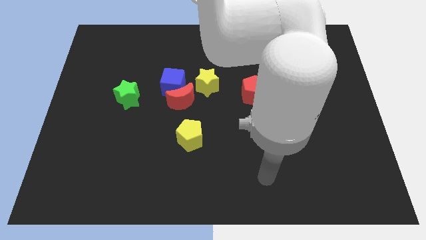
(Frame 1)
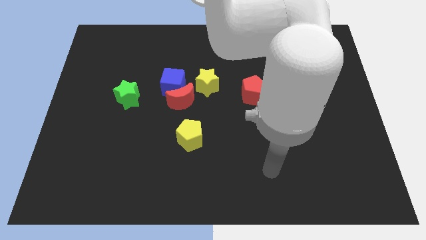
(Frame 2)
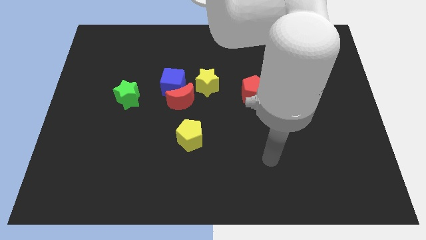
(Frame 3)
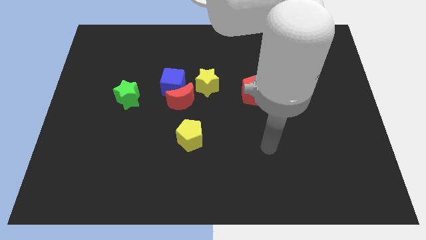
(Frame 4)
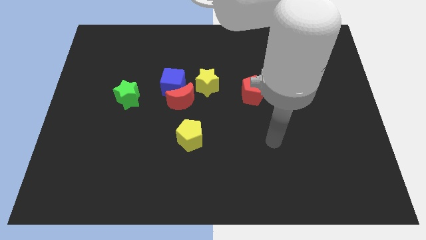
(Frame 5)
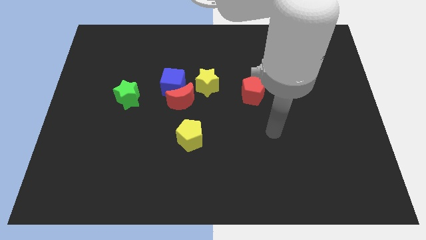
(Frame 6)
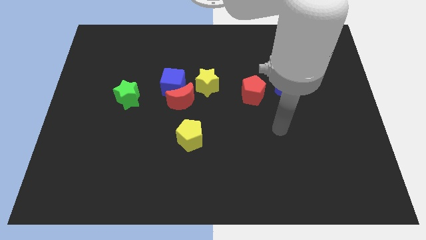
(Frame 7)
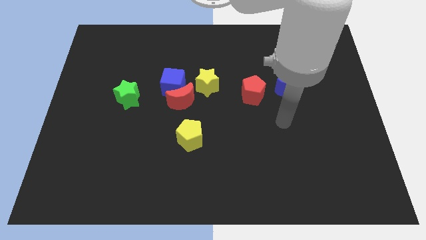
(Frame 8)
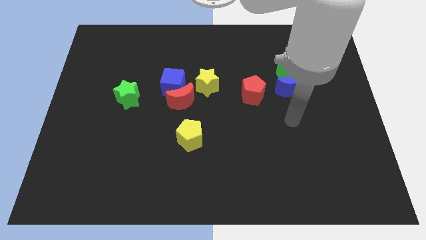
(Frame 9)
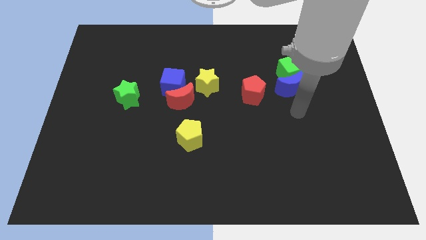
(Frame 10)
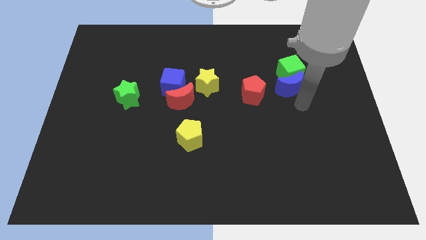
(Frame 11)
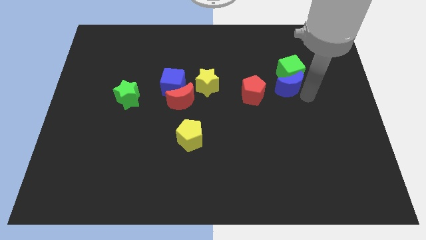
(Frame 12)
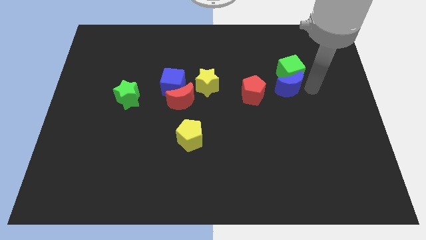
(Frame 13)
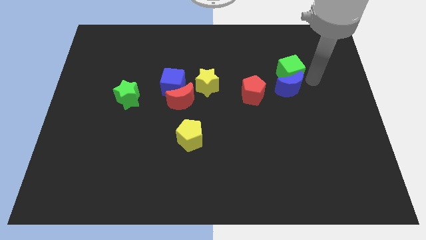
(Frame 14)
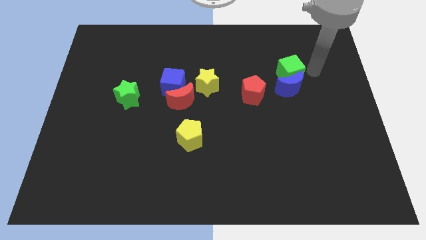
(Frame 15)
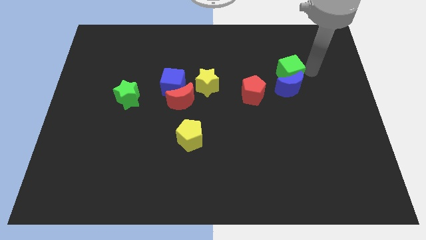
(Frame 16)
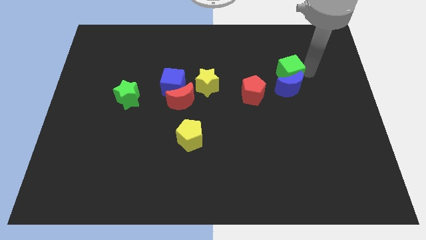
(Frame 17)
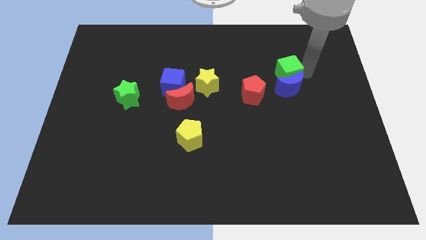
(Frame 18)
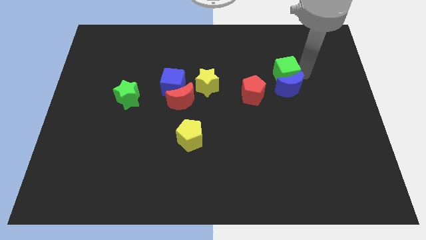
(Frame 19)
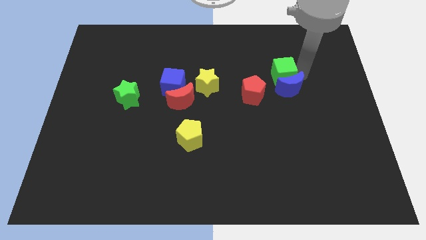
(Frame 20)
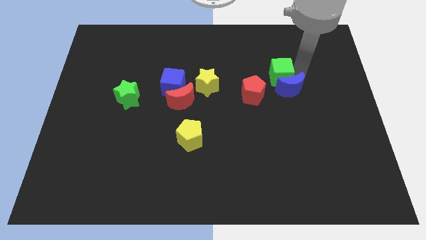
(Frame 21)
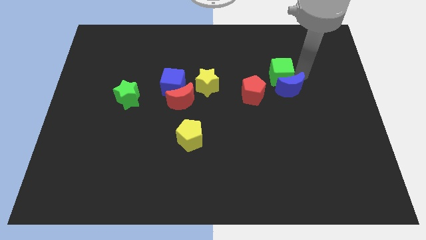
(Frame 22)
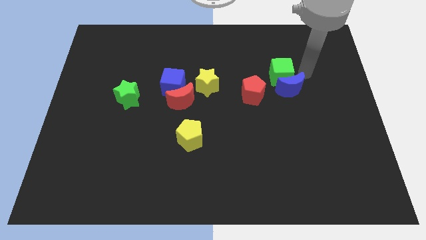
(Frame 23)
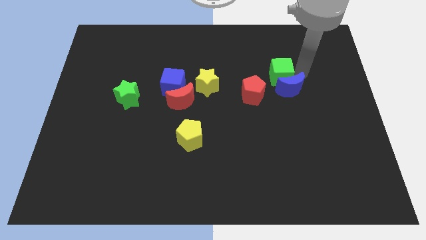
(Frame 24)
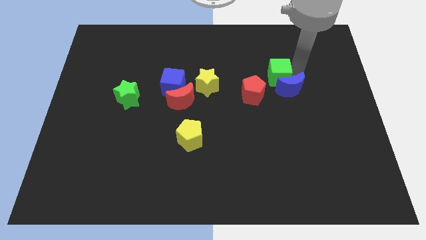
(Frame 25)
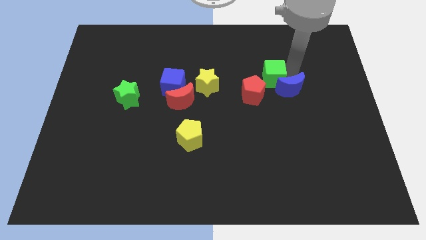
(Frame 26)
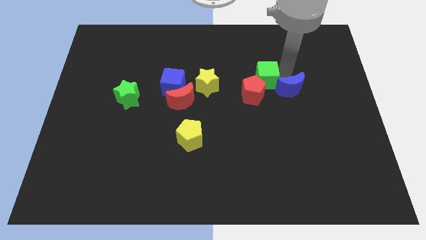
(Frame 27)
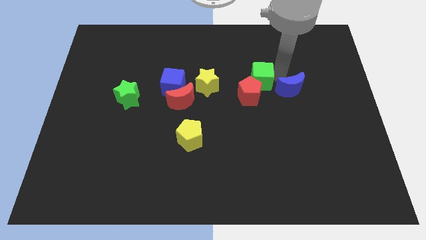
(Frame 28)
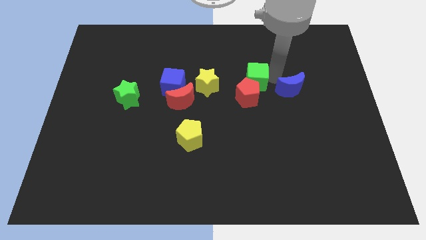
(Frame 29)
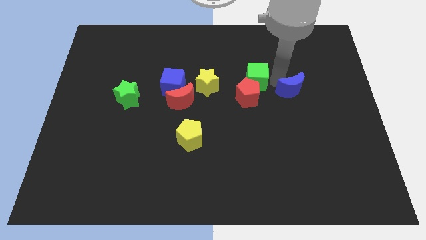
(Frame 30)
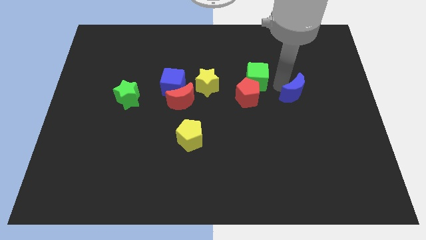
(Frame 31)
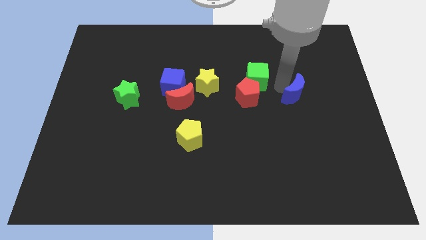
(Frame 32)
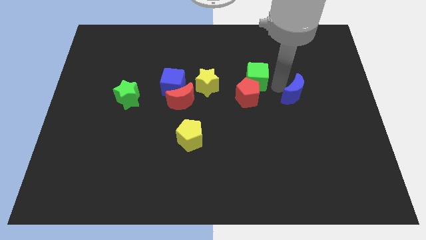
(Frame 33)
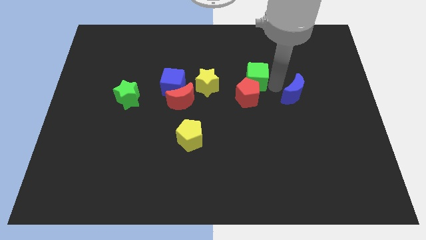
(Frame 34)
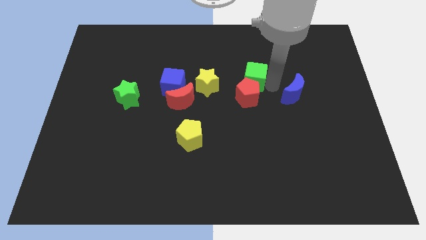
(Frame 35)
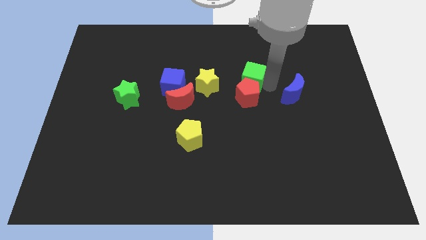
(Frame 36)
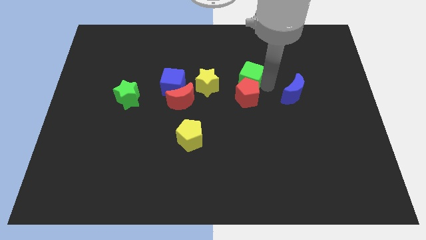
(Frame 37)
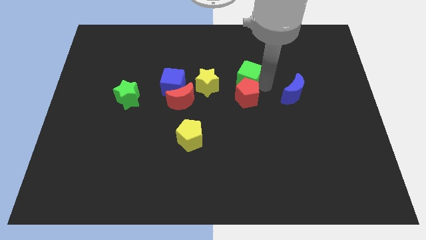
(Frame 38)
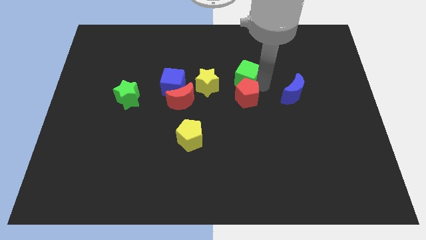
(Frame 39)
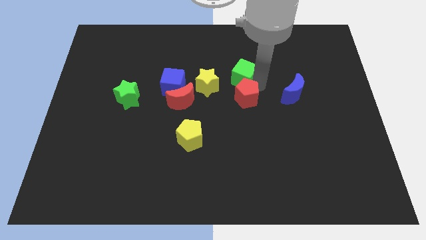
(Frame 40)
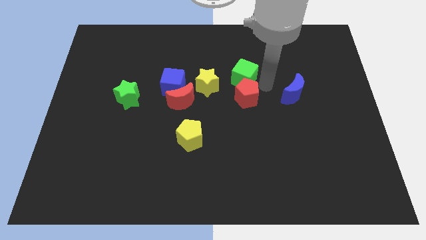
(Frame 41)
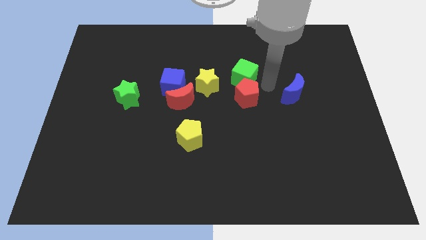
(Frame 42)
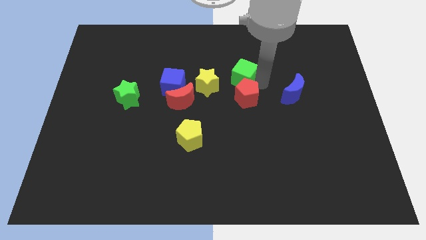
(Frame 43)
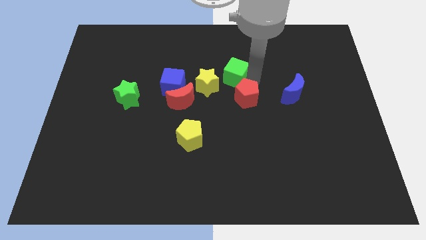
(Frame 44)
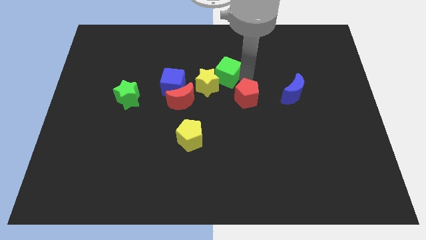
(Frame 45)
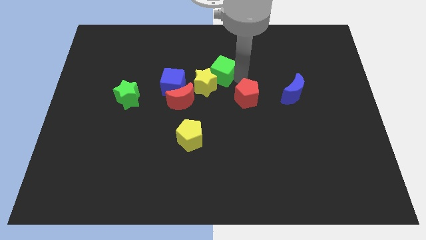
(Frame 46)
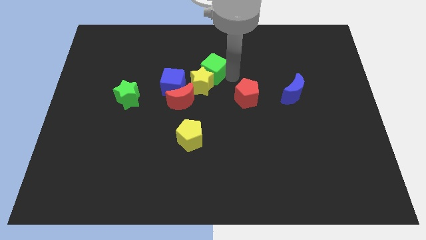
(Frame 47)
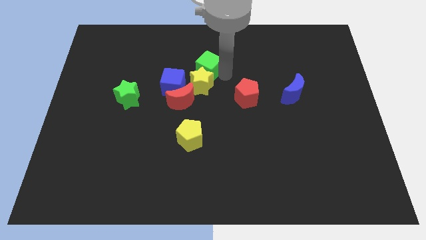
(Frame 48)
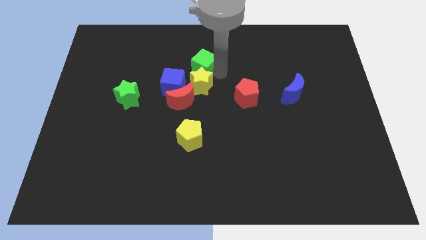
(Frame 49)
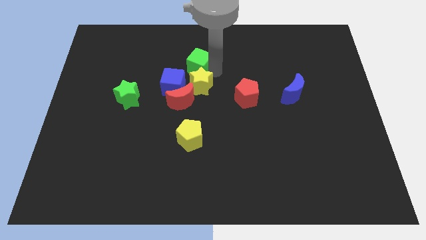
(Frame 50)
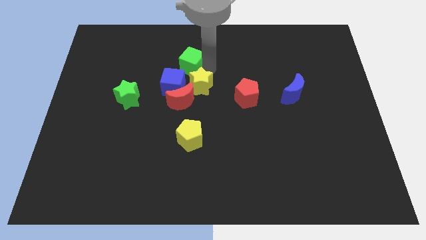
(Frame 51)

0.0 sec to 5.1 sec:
move the green cube to the top of the blue cube

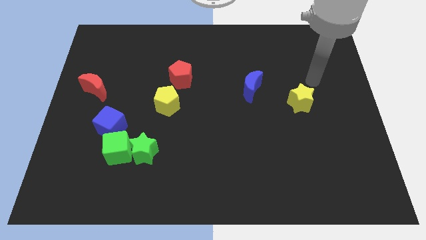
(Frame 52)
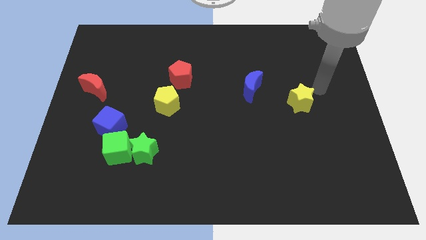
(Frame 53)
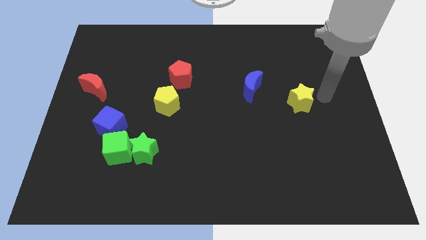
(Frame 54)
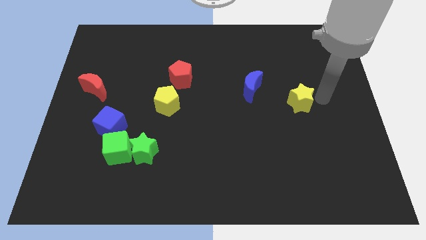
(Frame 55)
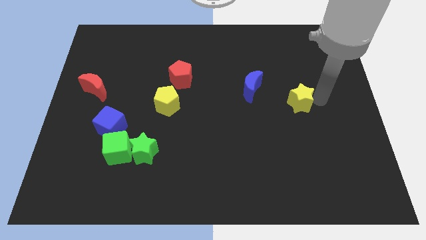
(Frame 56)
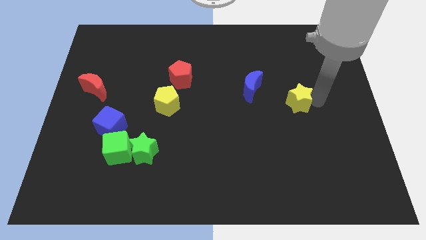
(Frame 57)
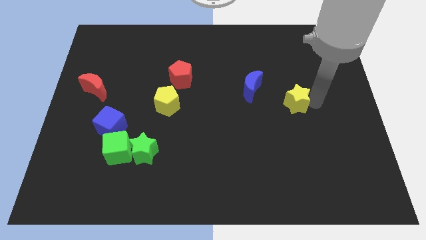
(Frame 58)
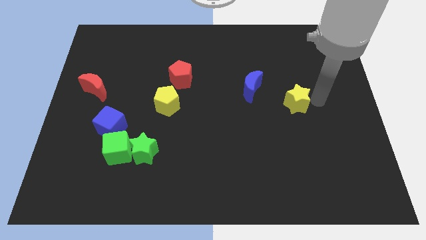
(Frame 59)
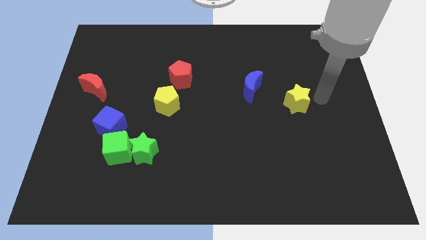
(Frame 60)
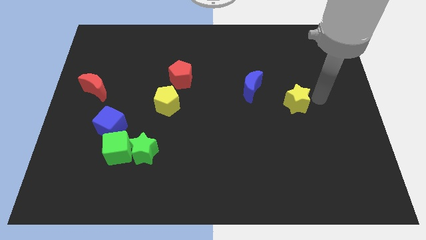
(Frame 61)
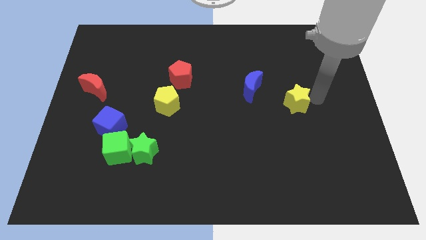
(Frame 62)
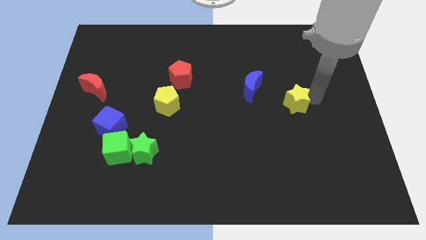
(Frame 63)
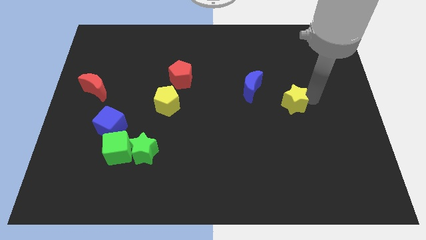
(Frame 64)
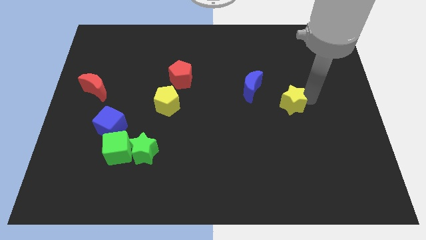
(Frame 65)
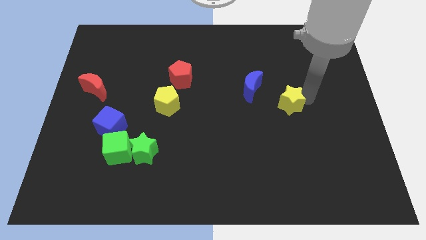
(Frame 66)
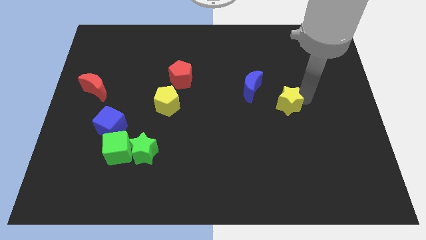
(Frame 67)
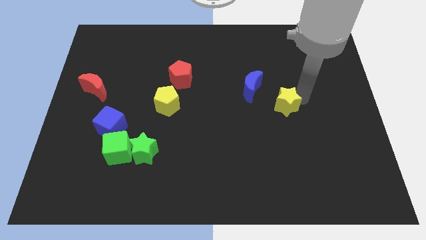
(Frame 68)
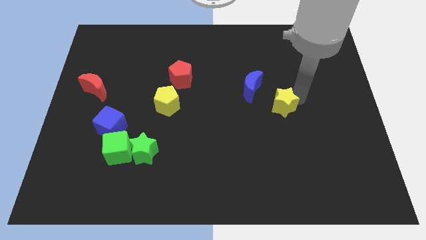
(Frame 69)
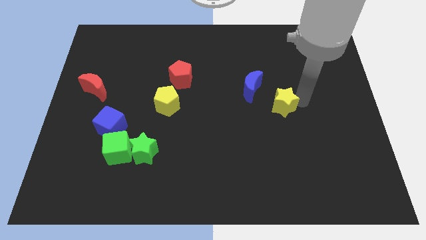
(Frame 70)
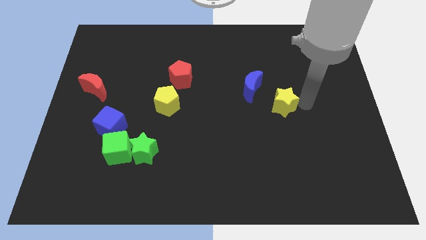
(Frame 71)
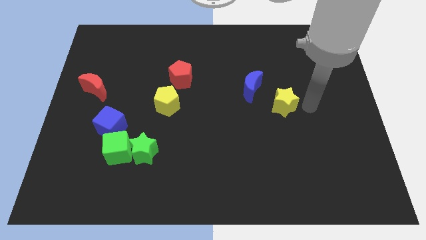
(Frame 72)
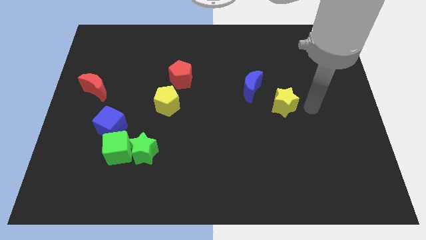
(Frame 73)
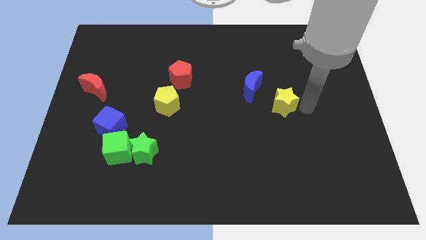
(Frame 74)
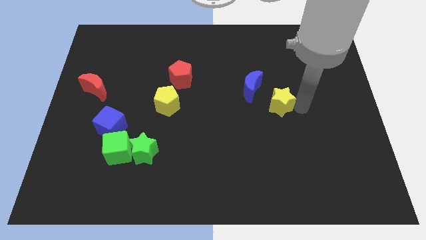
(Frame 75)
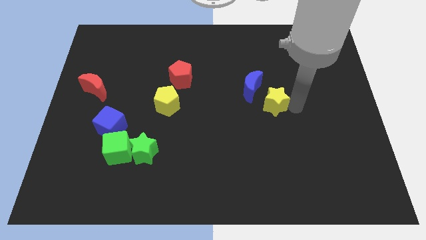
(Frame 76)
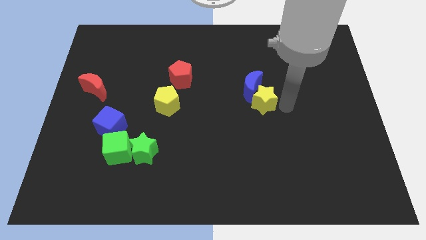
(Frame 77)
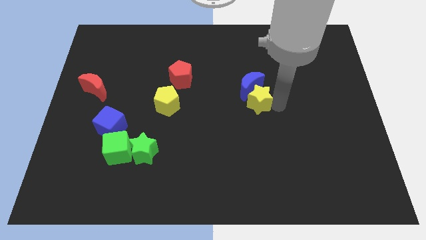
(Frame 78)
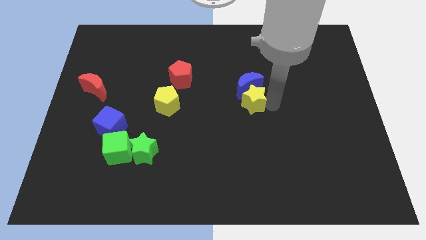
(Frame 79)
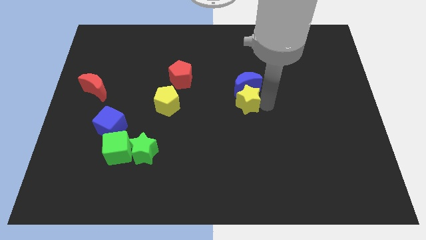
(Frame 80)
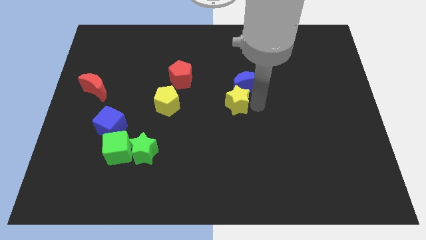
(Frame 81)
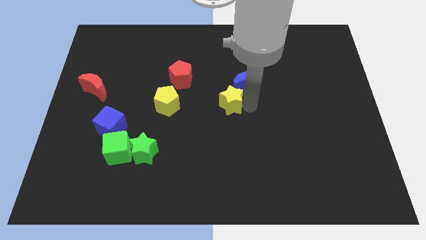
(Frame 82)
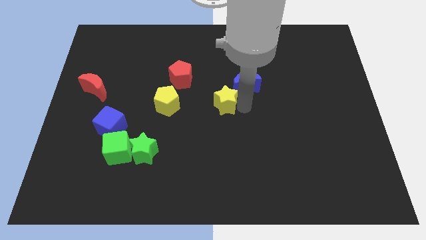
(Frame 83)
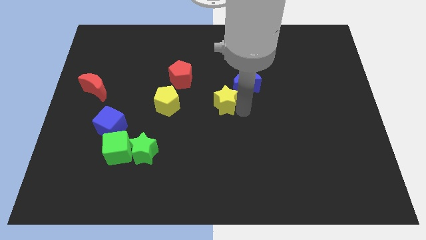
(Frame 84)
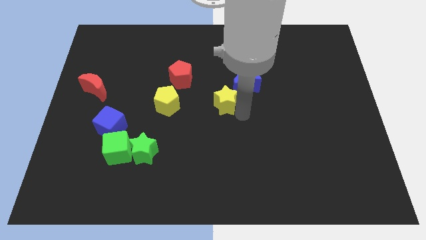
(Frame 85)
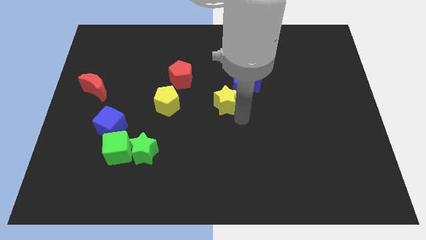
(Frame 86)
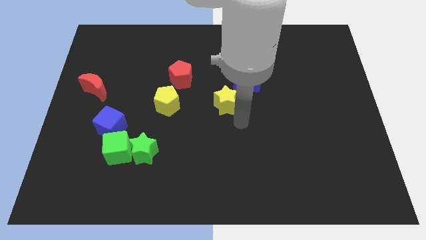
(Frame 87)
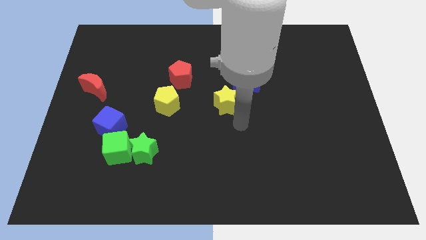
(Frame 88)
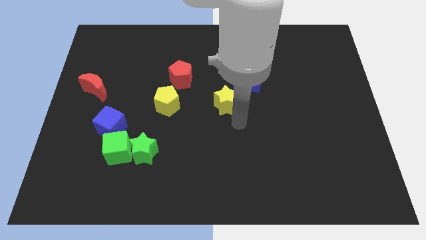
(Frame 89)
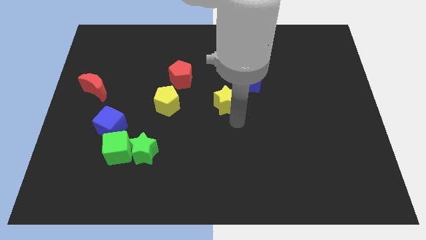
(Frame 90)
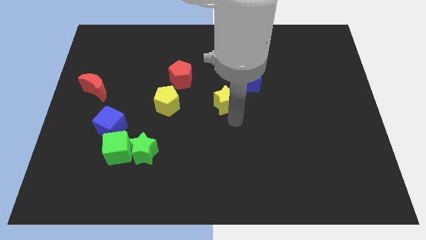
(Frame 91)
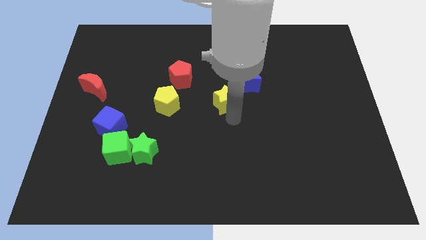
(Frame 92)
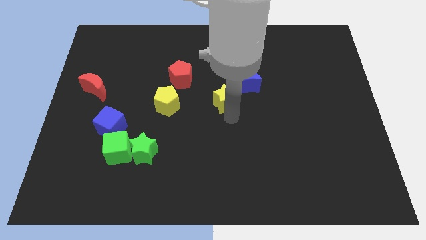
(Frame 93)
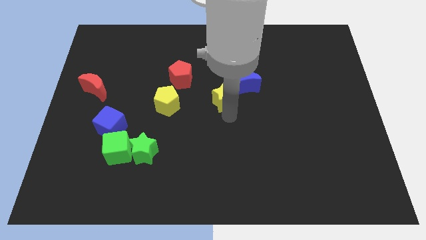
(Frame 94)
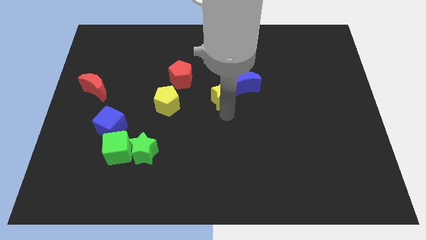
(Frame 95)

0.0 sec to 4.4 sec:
put the yellow star to the bottom right of the red pentagon
